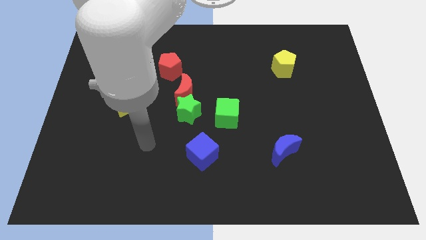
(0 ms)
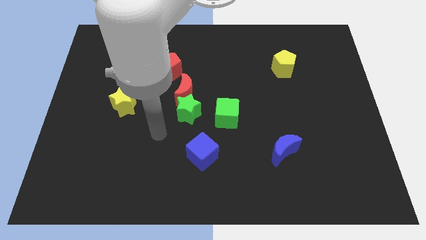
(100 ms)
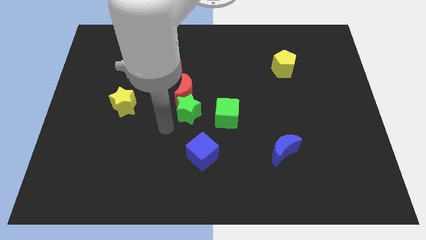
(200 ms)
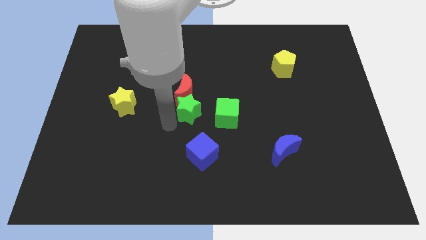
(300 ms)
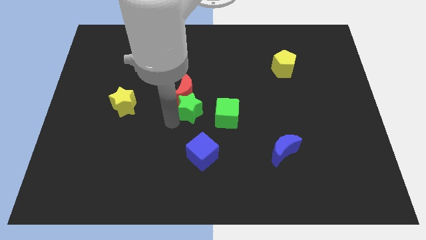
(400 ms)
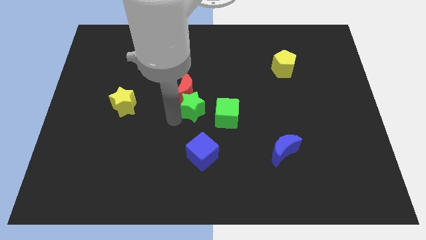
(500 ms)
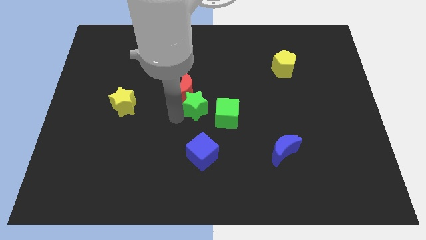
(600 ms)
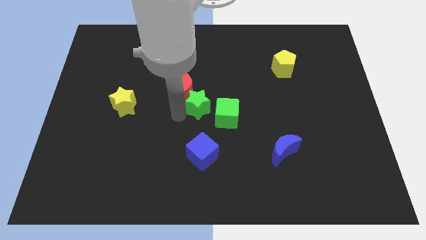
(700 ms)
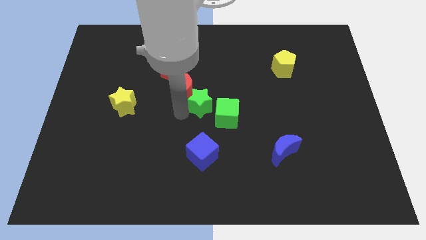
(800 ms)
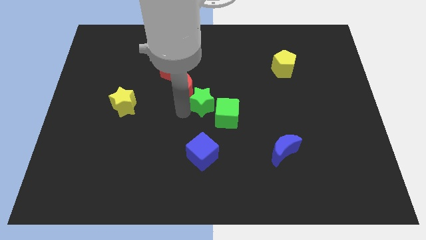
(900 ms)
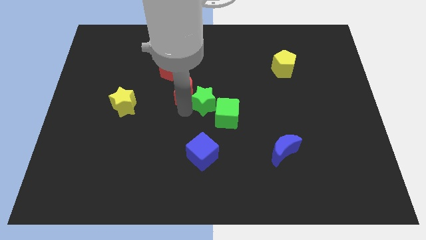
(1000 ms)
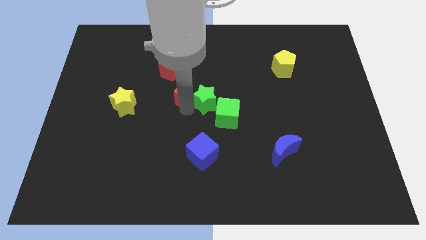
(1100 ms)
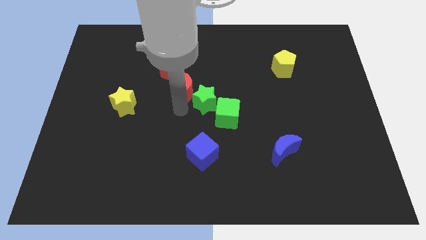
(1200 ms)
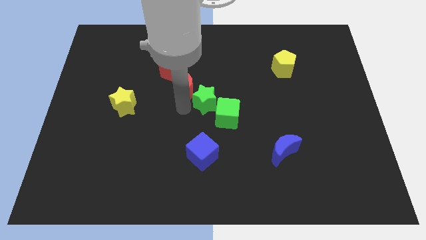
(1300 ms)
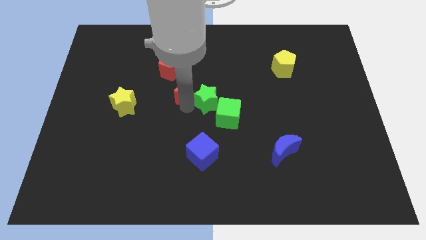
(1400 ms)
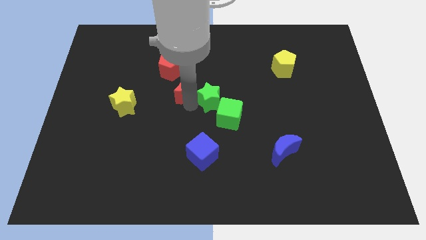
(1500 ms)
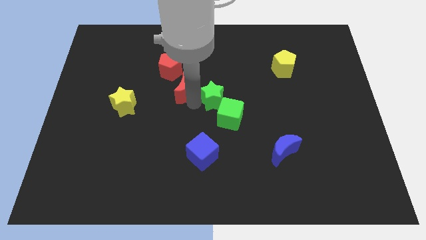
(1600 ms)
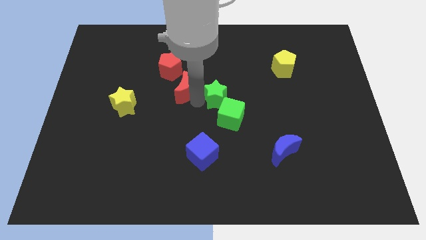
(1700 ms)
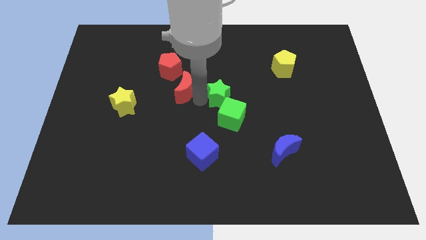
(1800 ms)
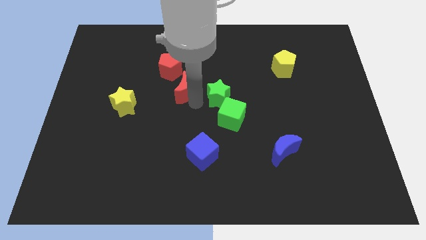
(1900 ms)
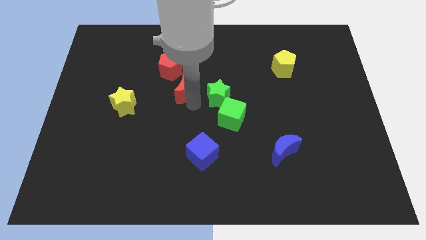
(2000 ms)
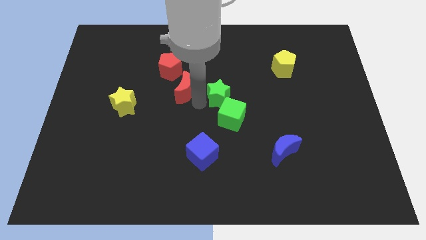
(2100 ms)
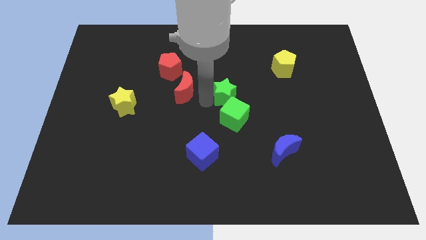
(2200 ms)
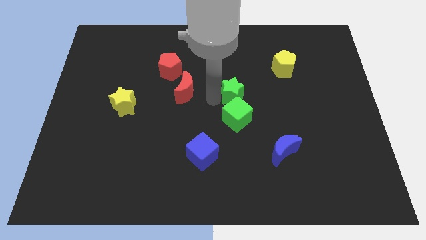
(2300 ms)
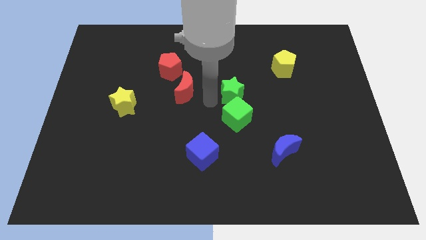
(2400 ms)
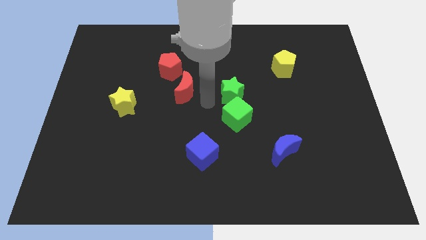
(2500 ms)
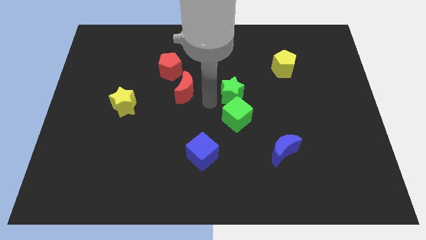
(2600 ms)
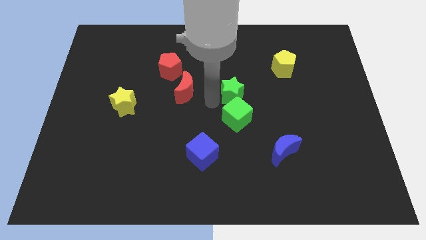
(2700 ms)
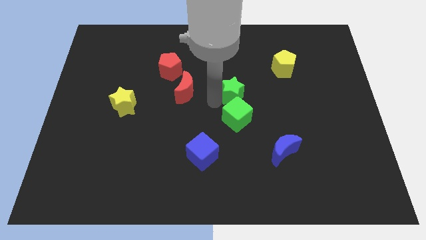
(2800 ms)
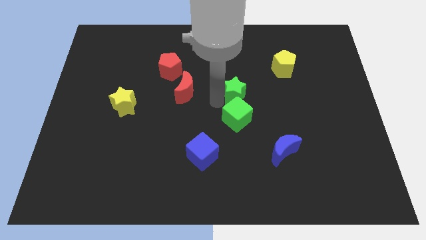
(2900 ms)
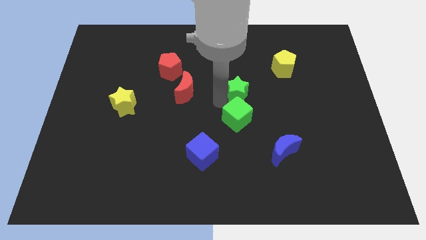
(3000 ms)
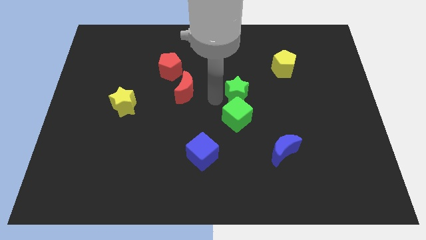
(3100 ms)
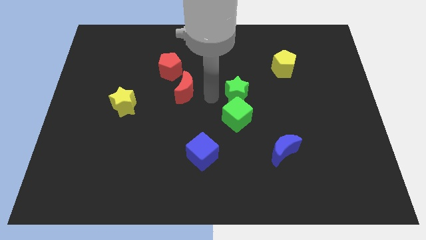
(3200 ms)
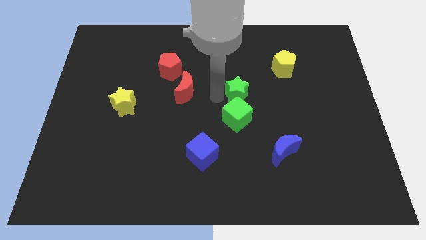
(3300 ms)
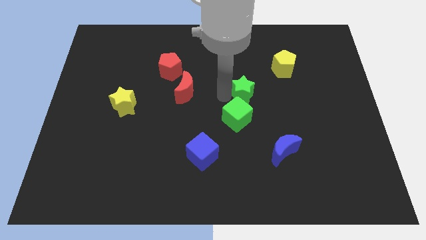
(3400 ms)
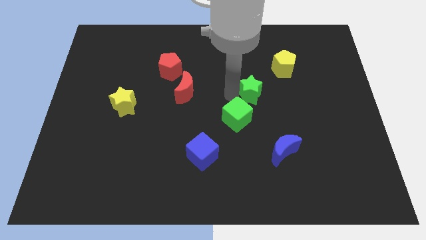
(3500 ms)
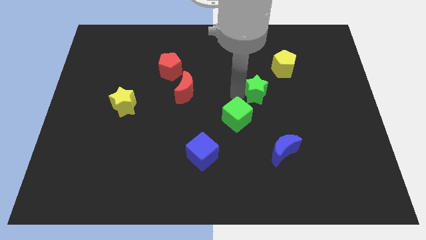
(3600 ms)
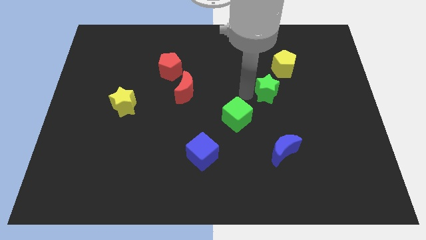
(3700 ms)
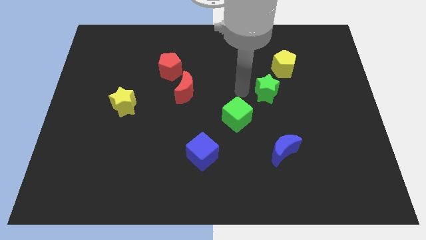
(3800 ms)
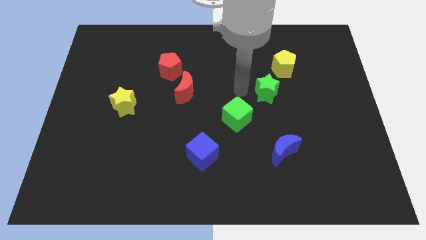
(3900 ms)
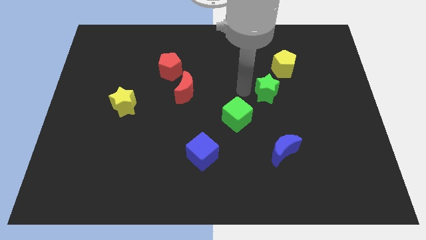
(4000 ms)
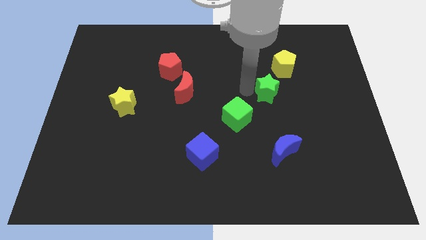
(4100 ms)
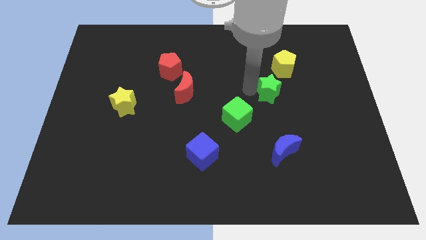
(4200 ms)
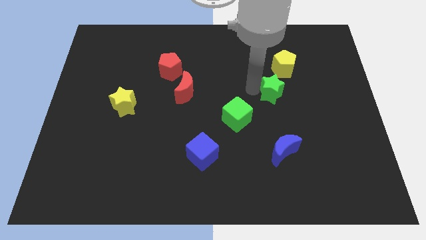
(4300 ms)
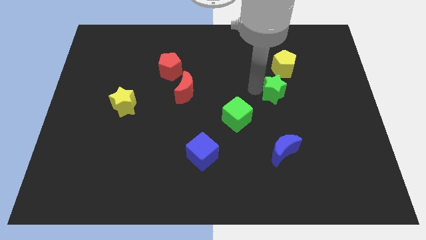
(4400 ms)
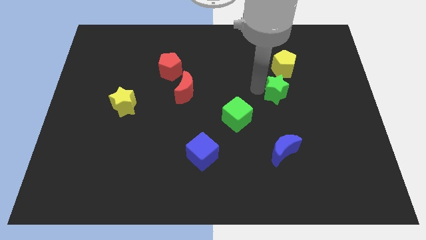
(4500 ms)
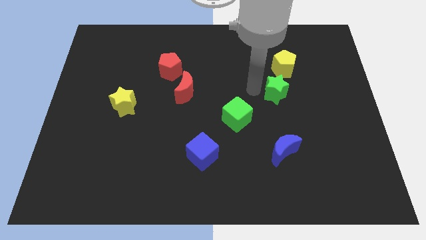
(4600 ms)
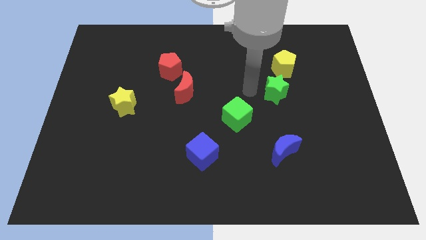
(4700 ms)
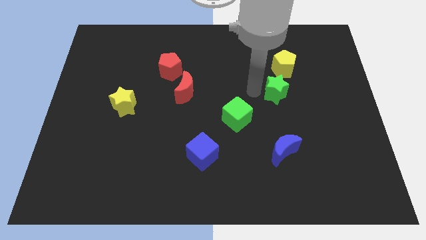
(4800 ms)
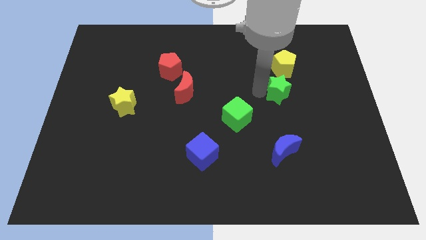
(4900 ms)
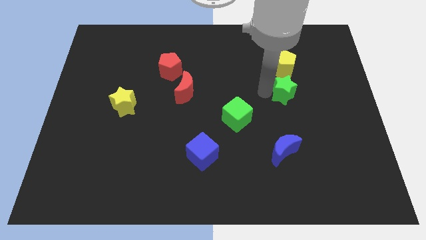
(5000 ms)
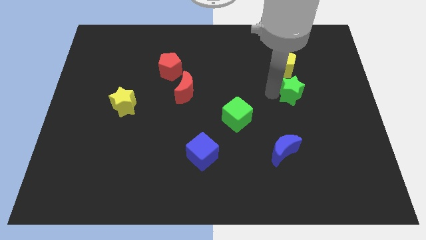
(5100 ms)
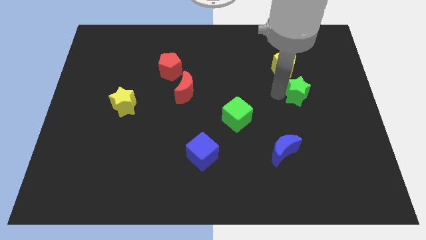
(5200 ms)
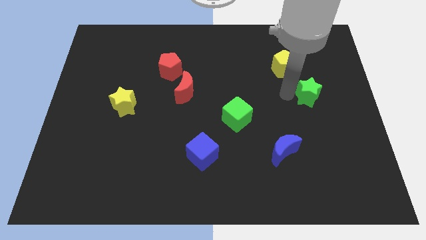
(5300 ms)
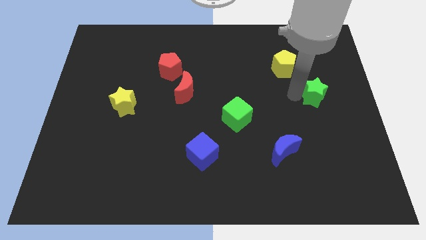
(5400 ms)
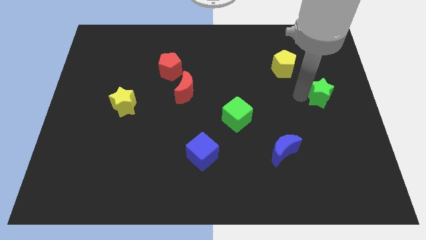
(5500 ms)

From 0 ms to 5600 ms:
slide the green star to the right side of the board
